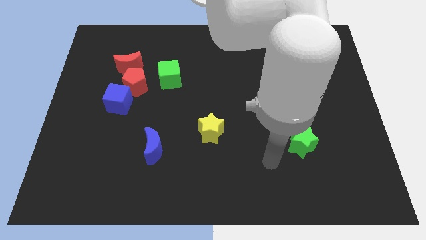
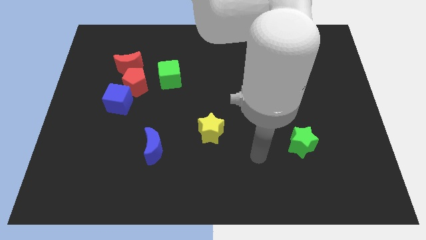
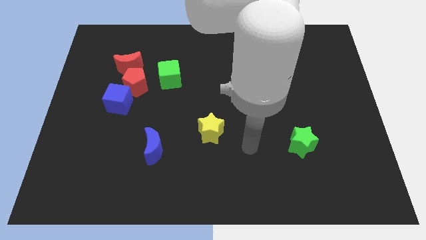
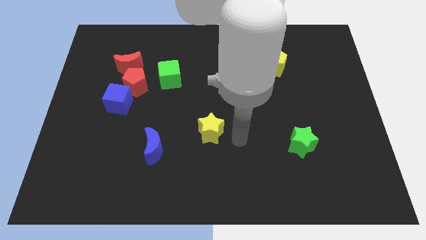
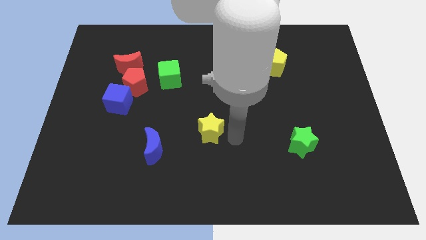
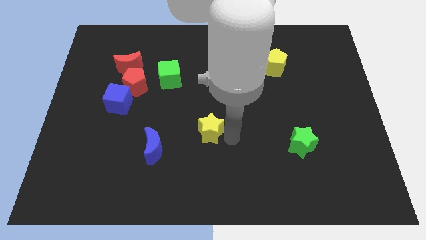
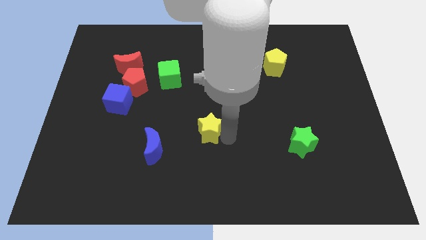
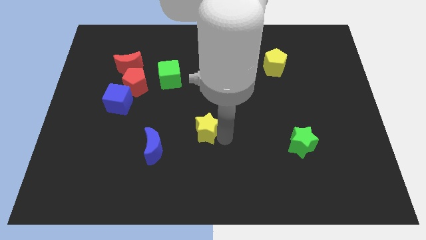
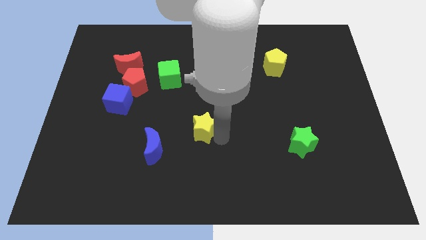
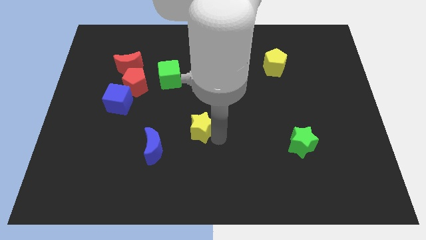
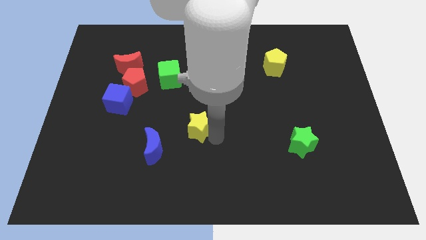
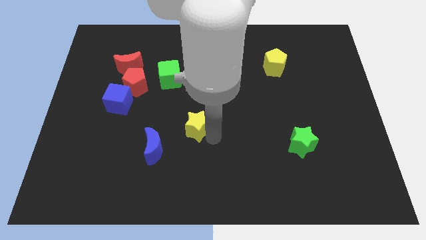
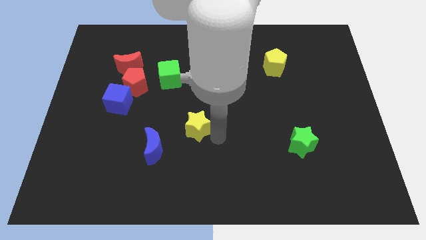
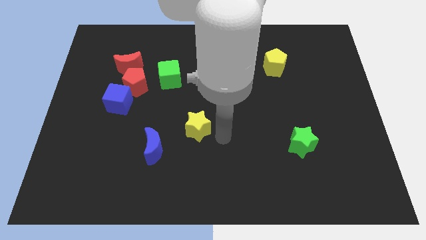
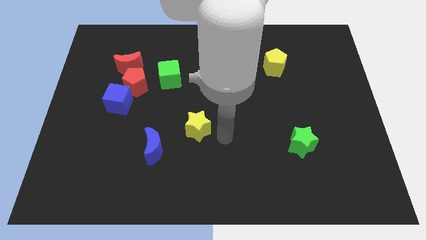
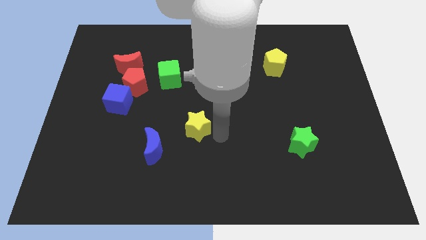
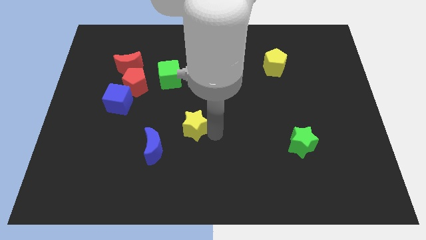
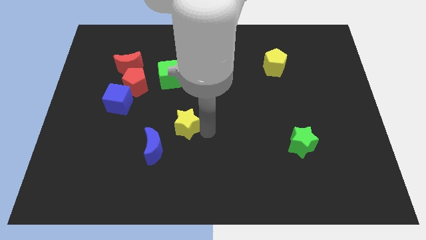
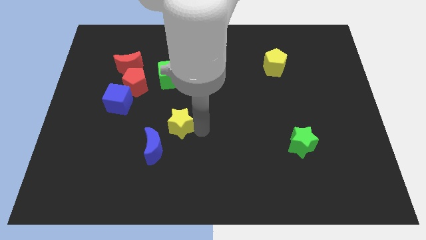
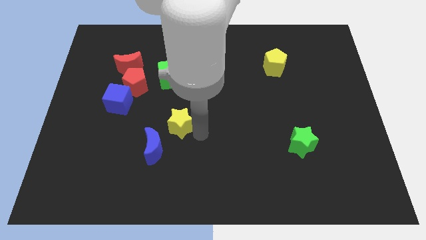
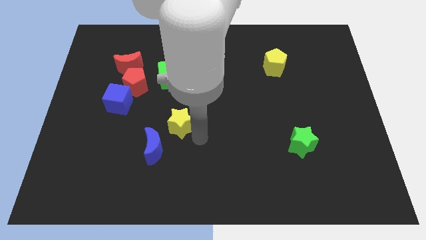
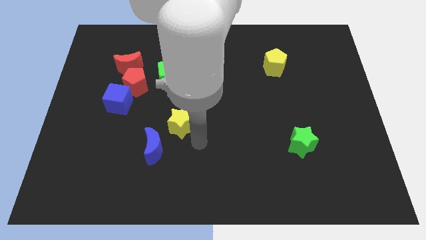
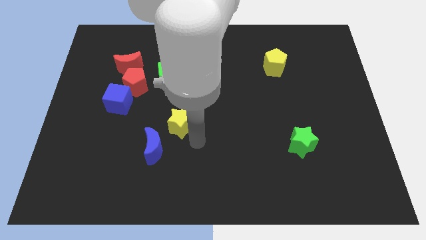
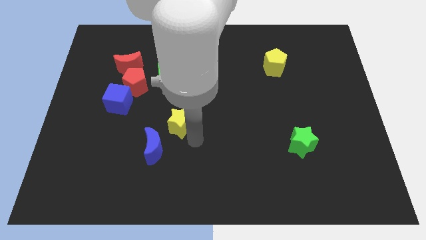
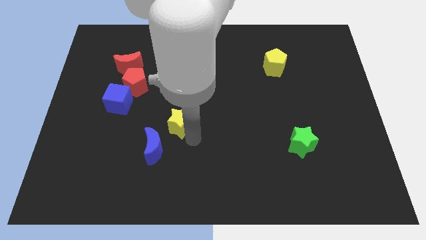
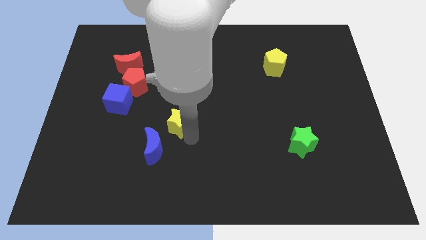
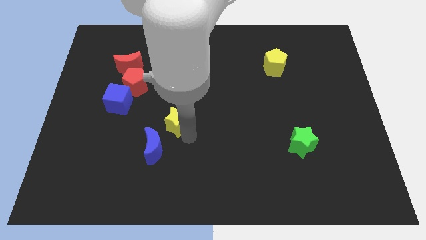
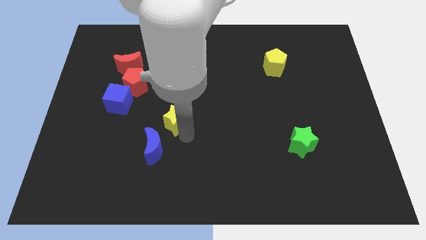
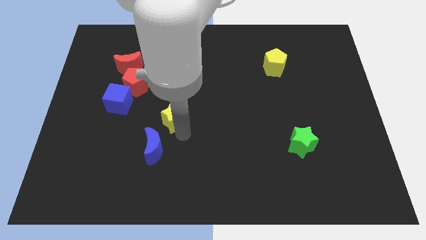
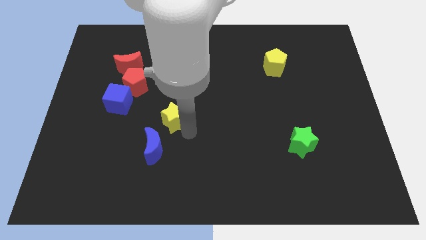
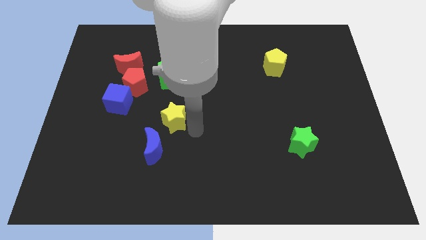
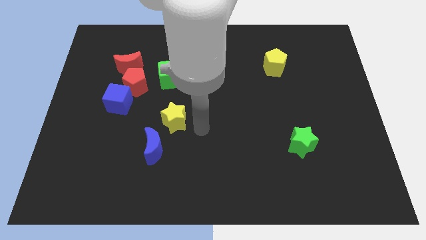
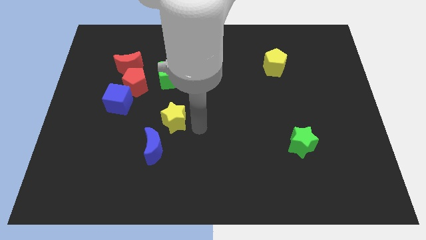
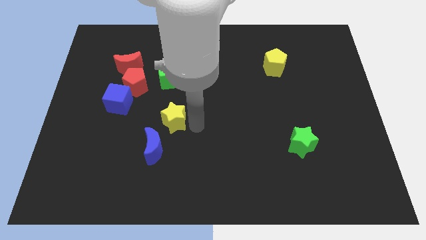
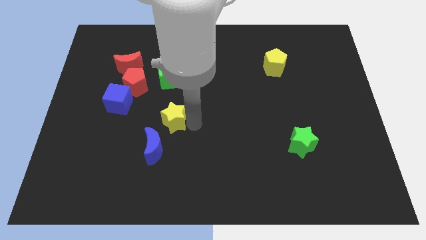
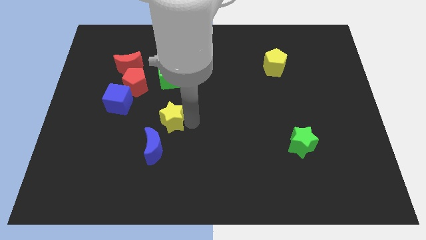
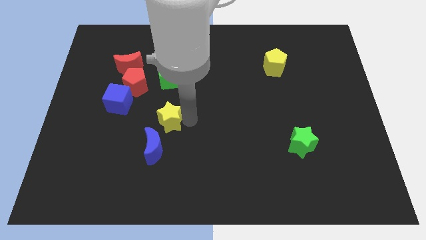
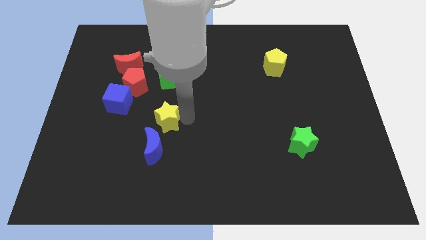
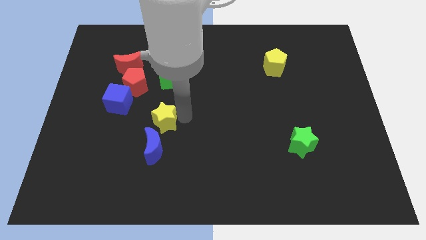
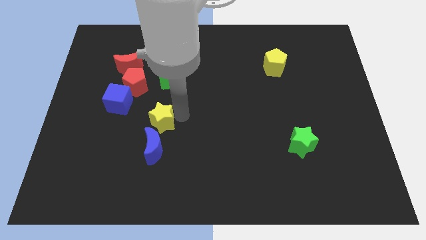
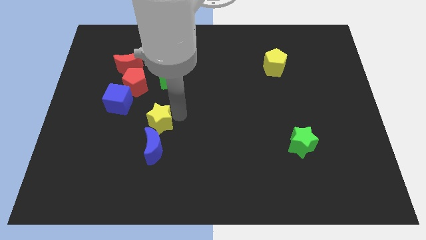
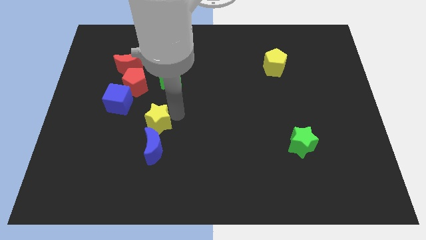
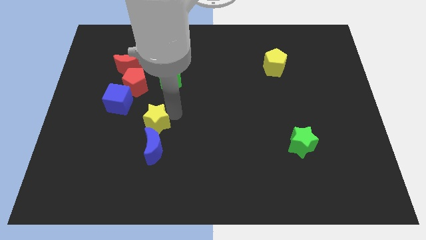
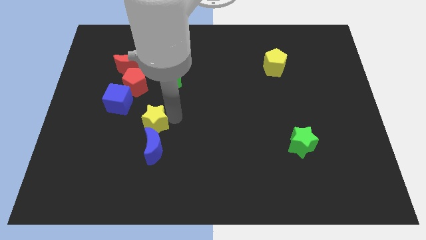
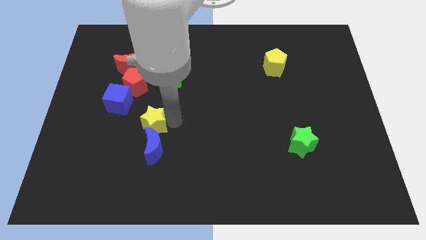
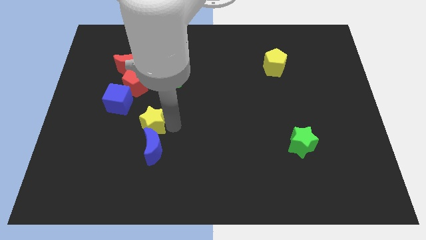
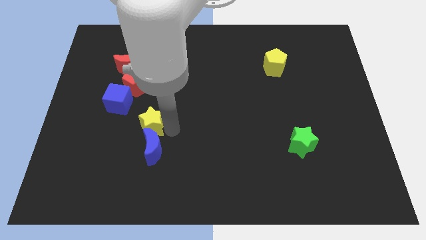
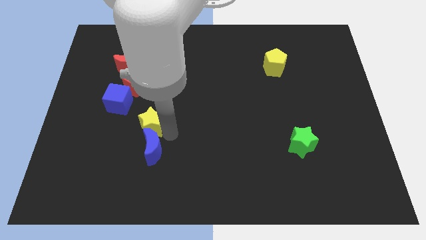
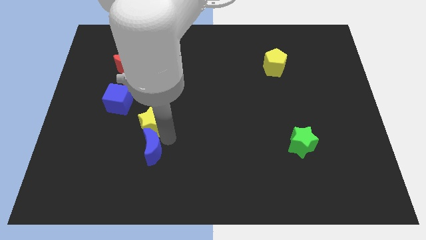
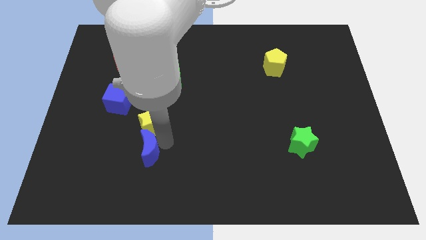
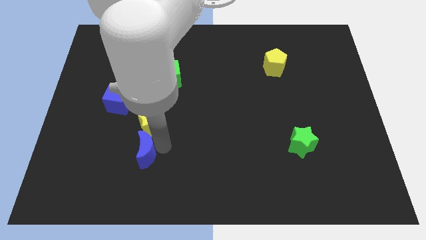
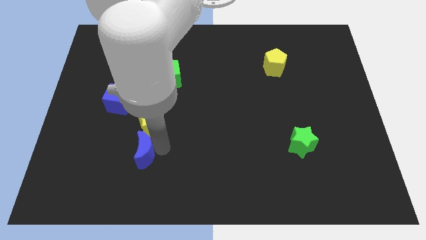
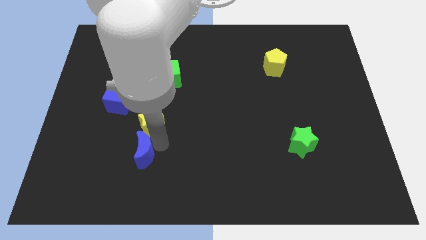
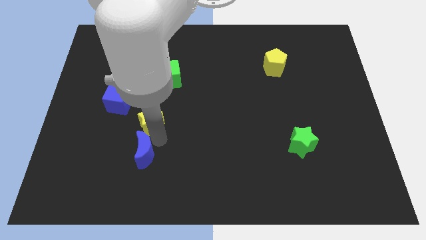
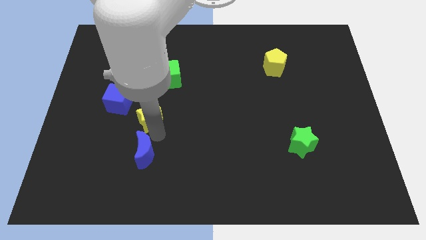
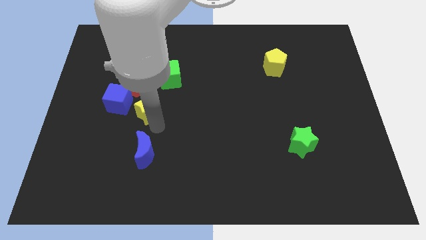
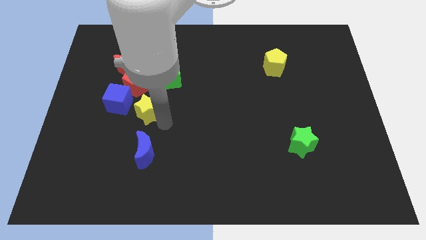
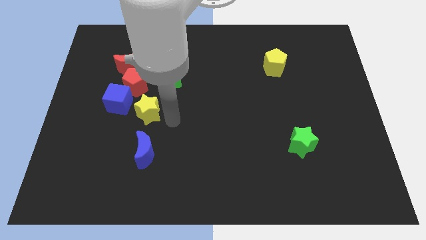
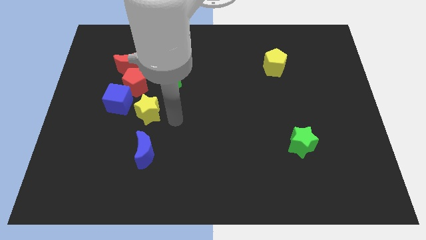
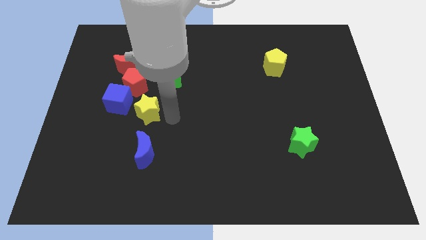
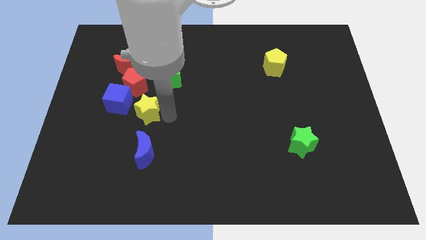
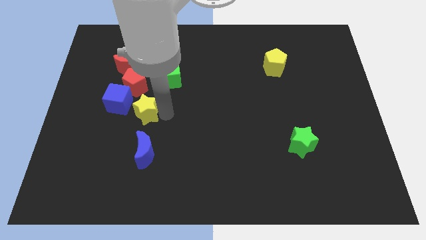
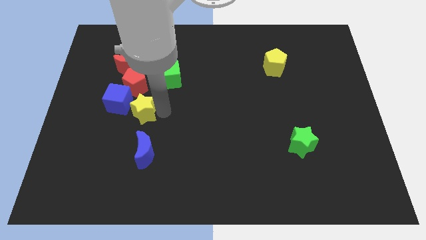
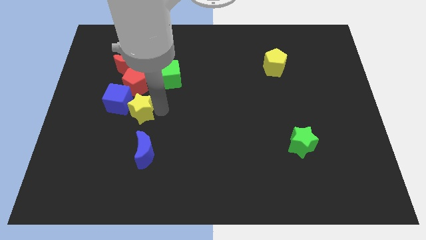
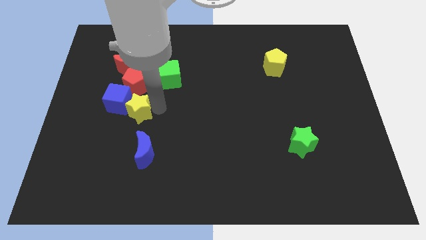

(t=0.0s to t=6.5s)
put the yellow star close to the blue cube

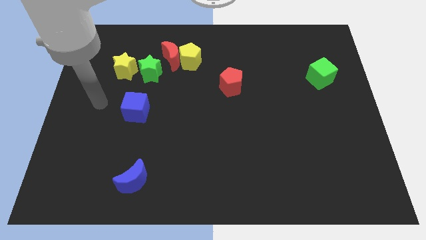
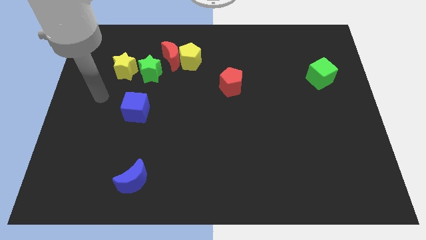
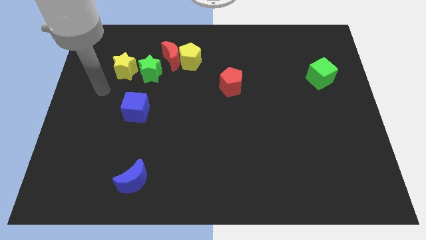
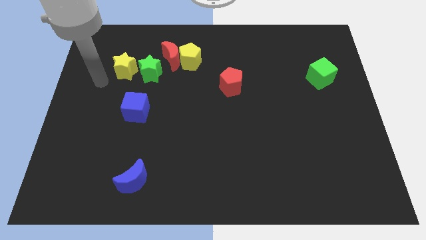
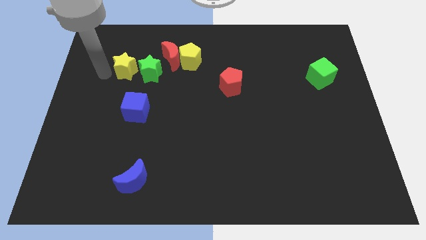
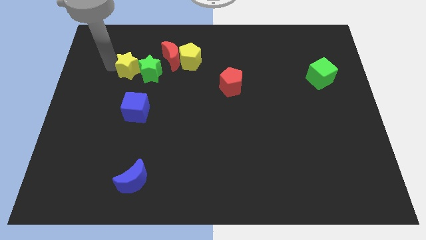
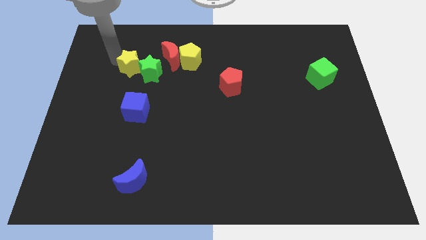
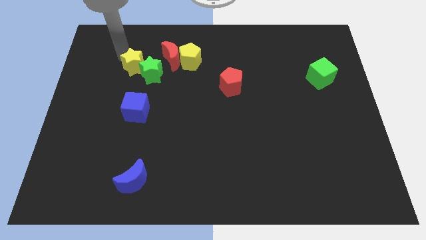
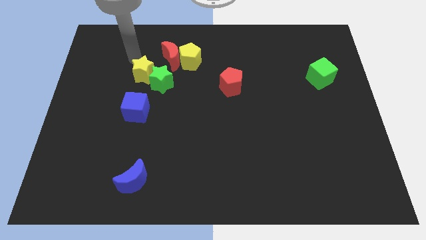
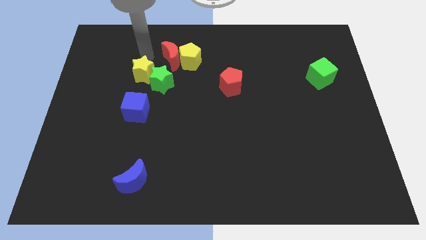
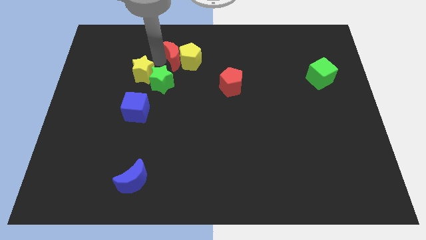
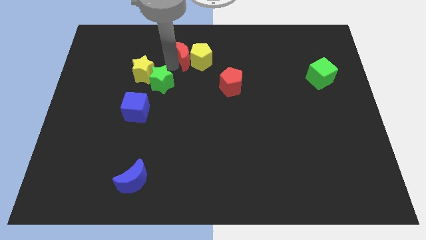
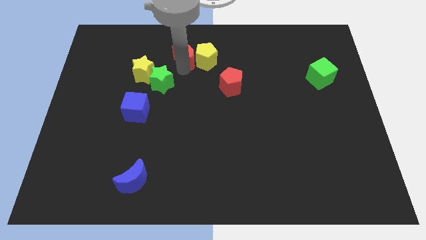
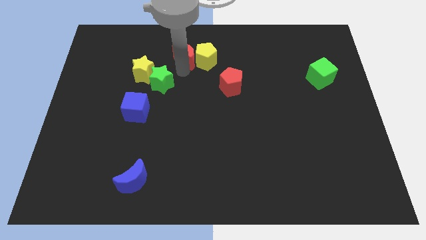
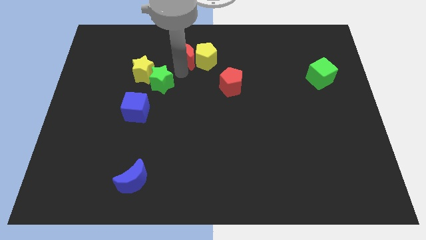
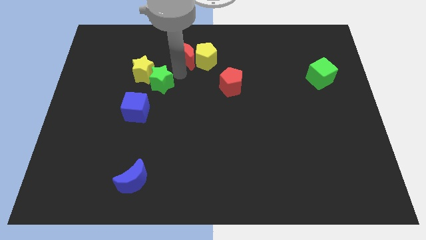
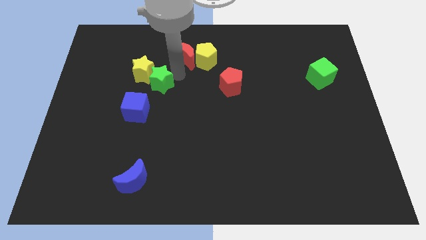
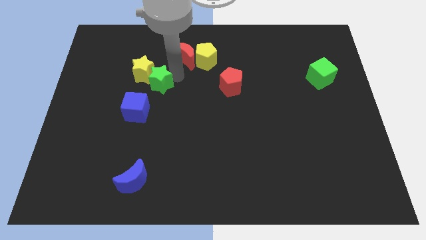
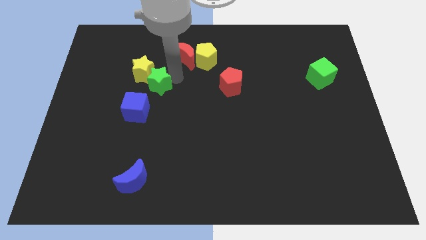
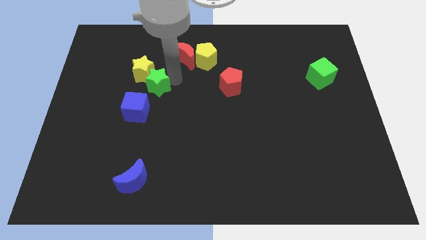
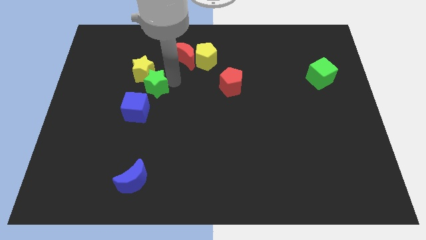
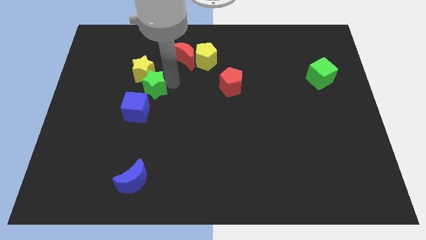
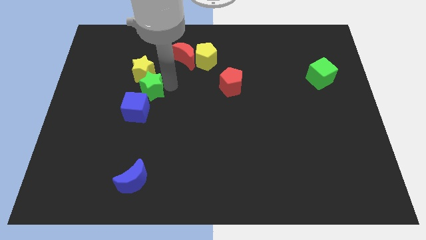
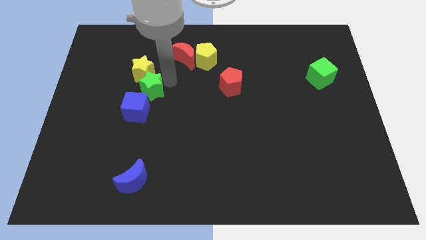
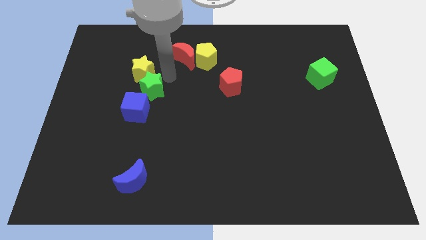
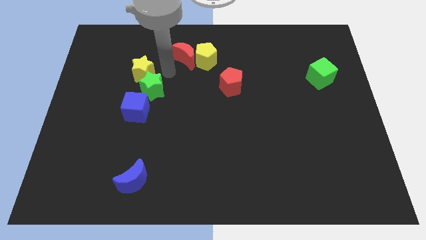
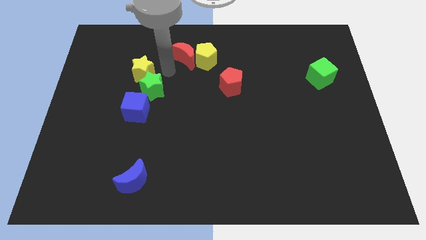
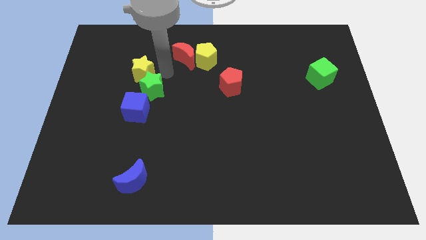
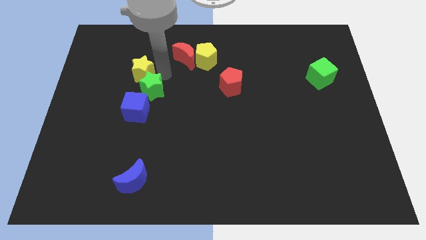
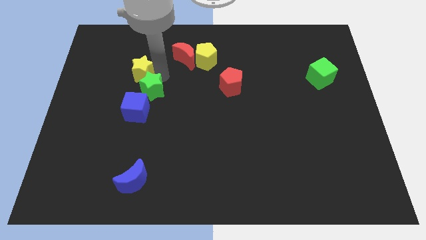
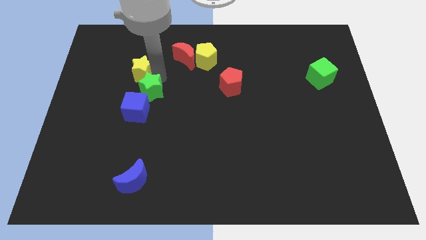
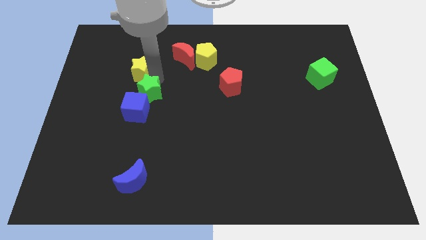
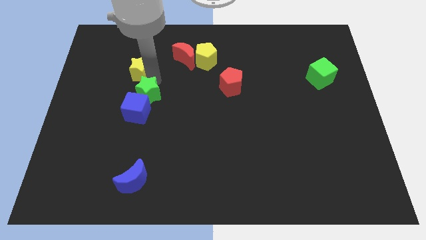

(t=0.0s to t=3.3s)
slide the green star towards the blue cube
